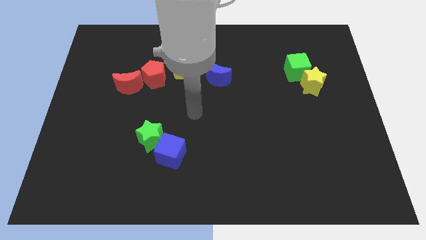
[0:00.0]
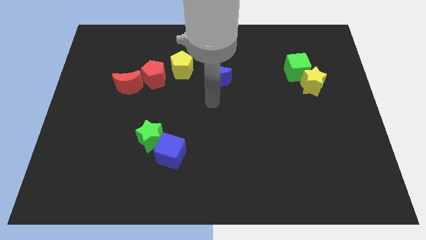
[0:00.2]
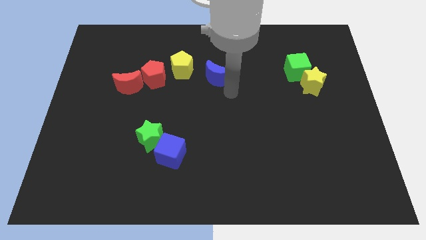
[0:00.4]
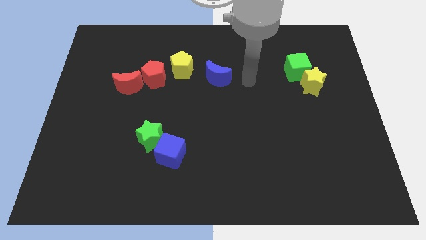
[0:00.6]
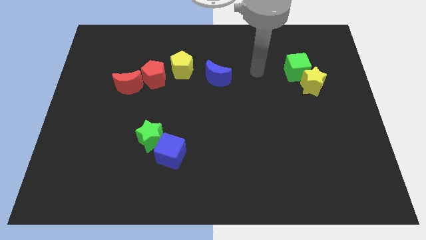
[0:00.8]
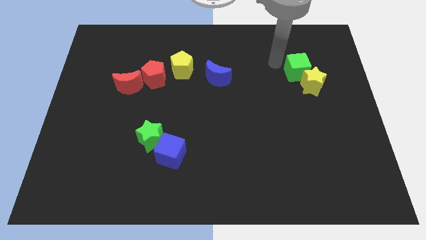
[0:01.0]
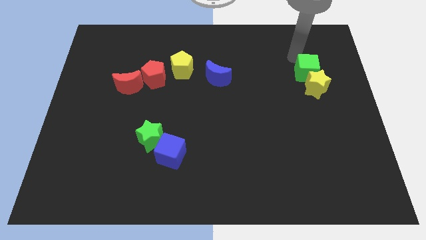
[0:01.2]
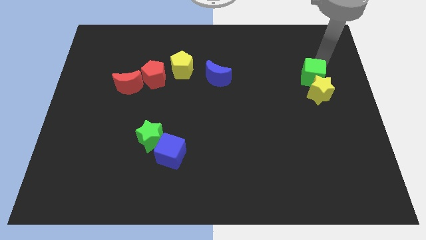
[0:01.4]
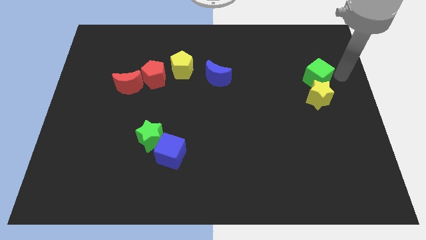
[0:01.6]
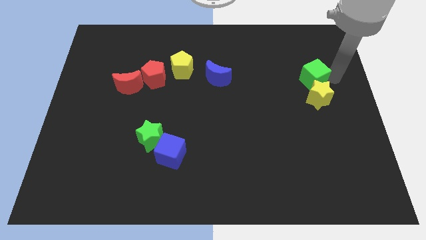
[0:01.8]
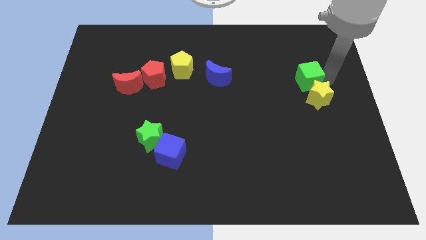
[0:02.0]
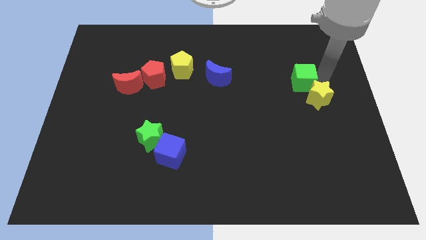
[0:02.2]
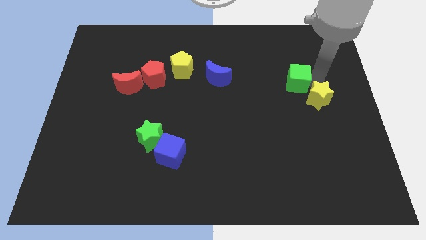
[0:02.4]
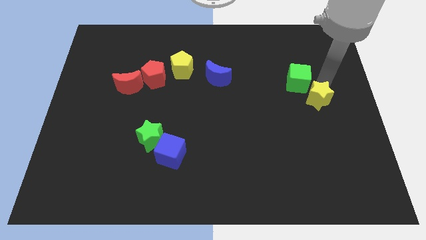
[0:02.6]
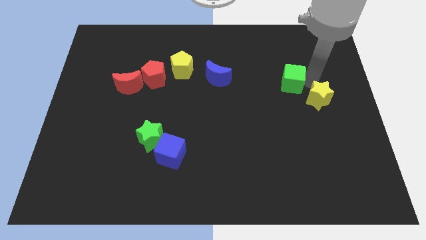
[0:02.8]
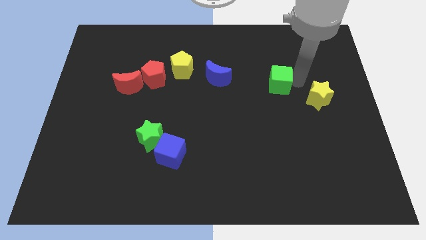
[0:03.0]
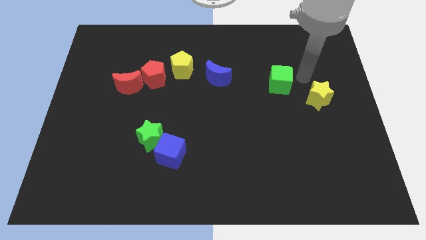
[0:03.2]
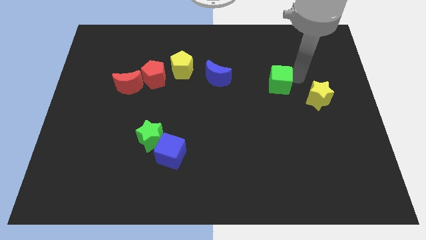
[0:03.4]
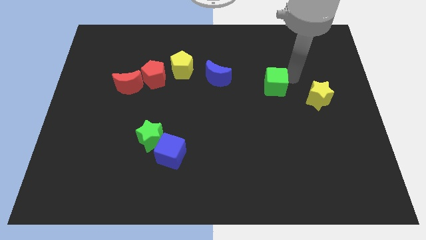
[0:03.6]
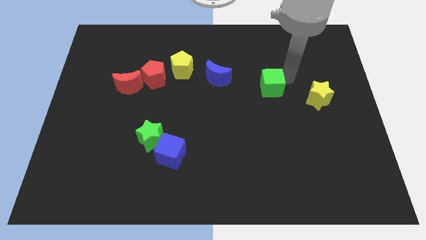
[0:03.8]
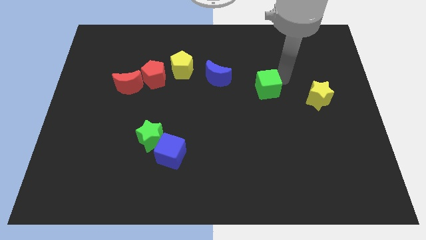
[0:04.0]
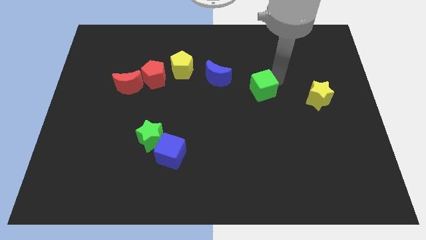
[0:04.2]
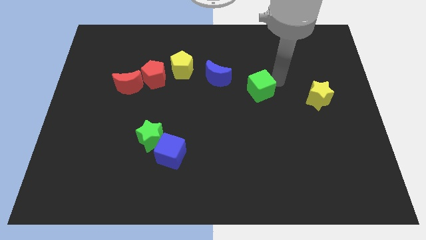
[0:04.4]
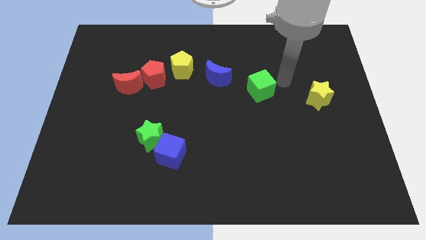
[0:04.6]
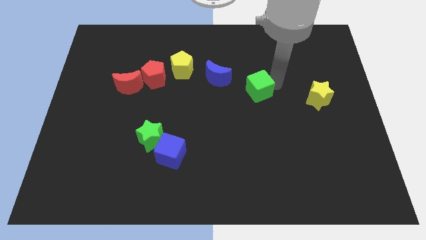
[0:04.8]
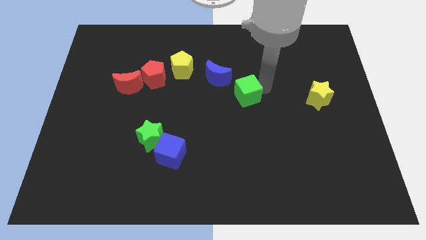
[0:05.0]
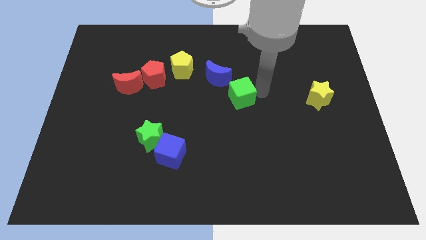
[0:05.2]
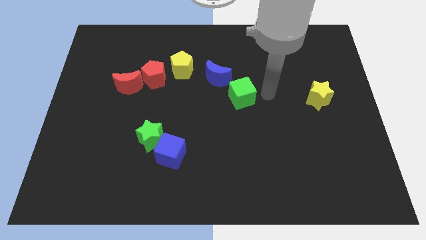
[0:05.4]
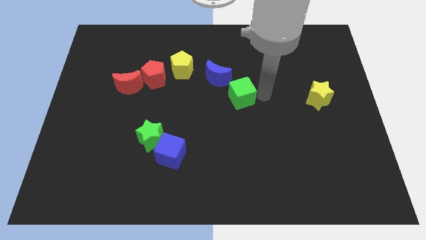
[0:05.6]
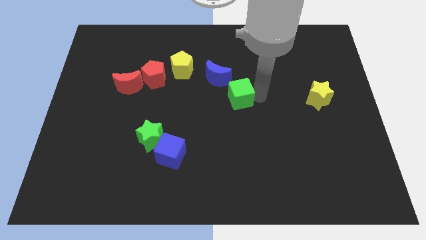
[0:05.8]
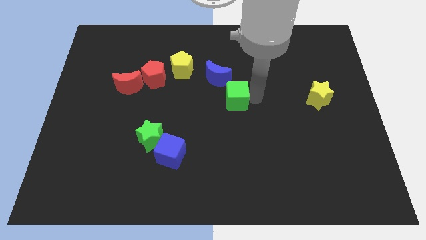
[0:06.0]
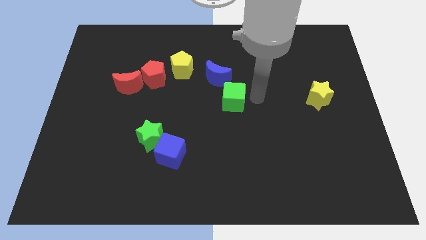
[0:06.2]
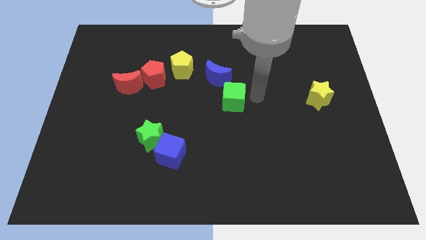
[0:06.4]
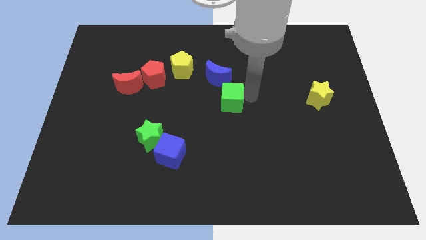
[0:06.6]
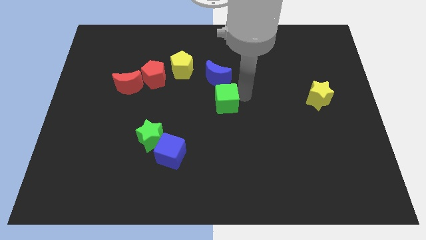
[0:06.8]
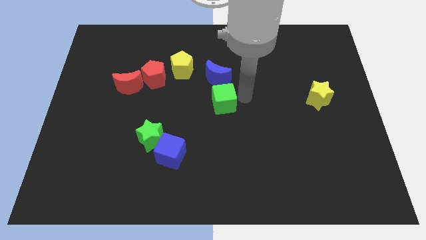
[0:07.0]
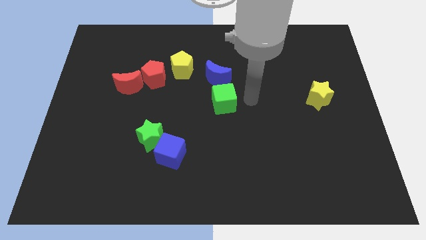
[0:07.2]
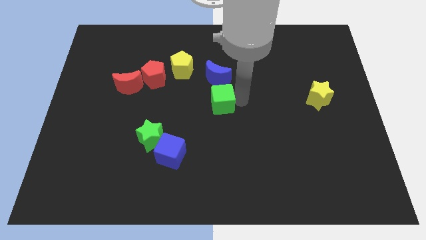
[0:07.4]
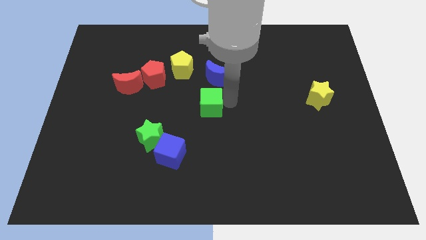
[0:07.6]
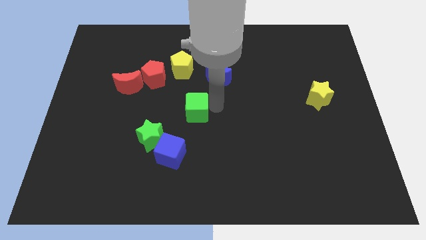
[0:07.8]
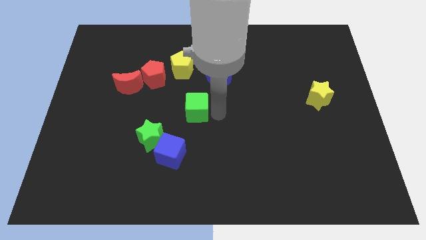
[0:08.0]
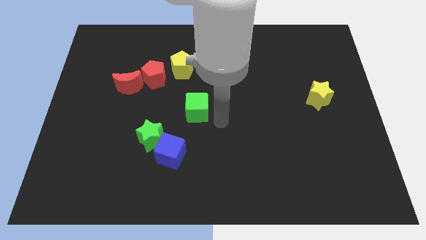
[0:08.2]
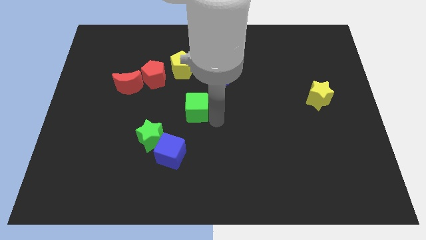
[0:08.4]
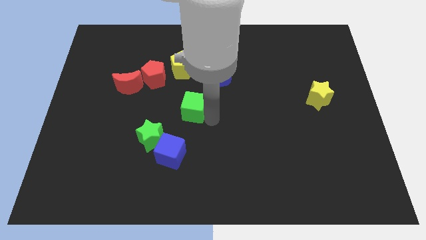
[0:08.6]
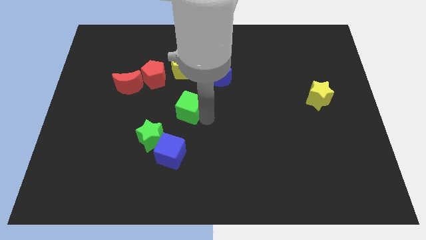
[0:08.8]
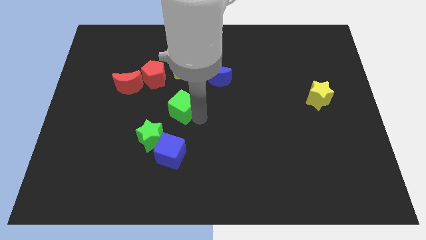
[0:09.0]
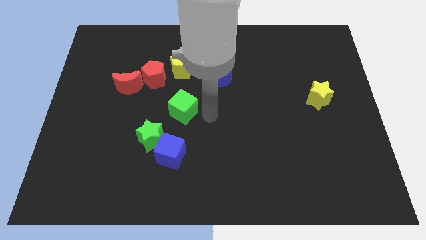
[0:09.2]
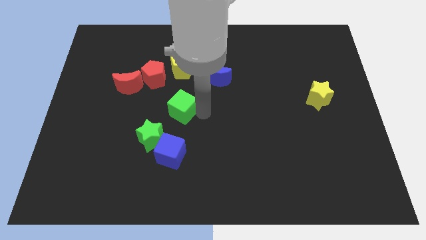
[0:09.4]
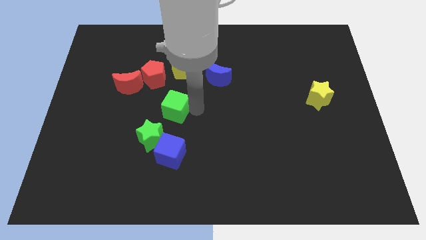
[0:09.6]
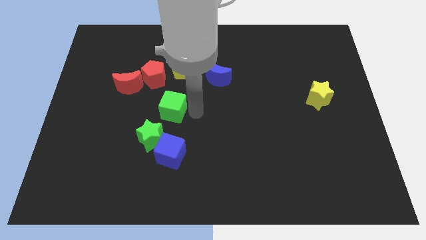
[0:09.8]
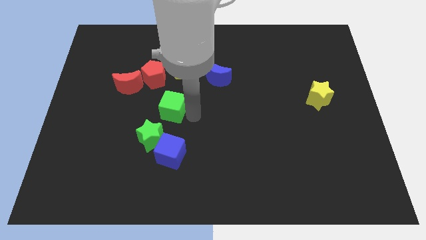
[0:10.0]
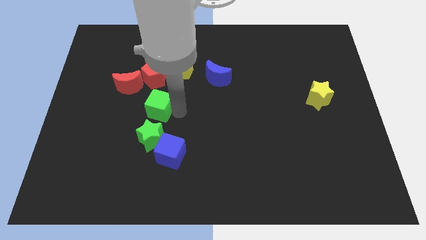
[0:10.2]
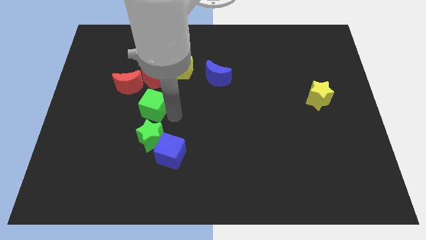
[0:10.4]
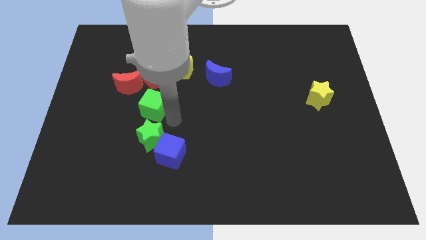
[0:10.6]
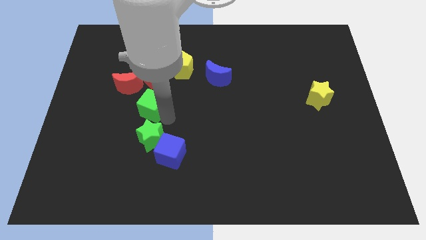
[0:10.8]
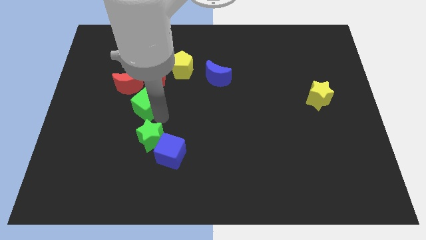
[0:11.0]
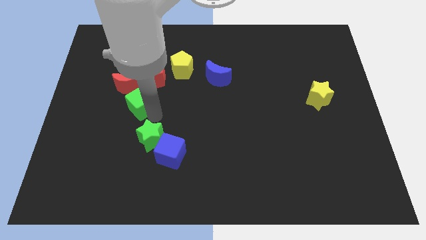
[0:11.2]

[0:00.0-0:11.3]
slide the green cube to the bottom left of the red pentagon
